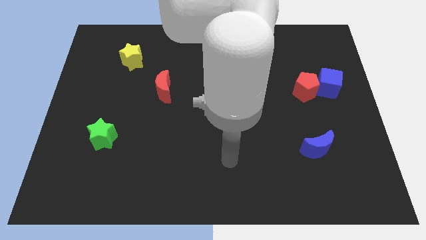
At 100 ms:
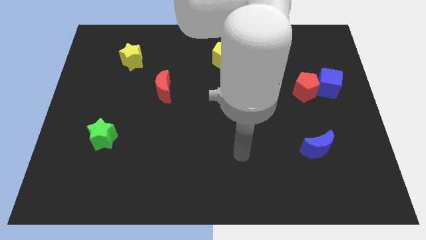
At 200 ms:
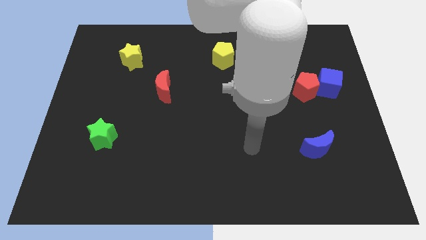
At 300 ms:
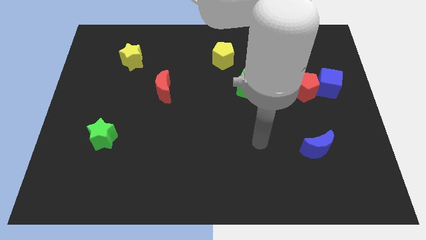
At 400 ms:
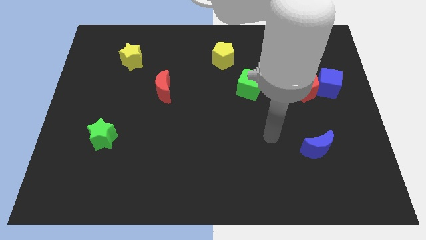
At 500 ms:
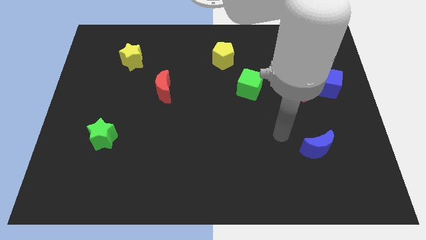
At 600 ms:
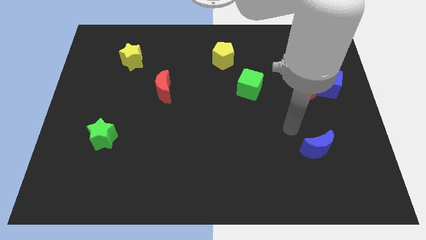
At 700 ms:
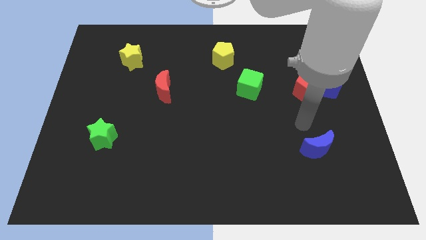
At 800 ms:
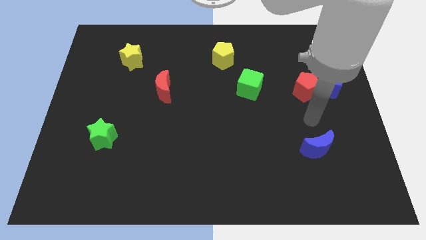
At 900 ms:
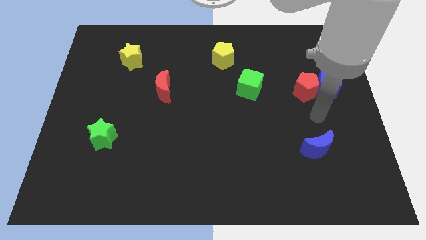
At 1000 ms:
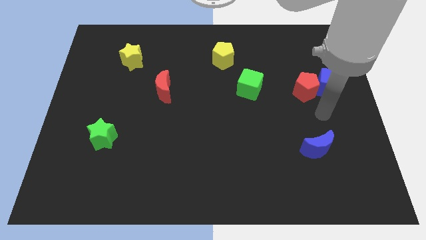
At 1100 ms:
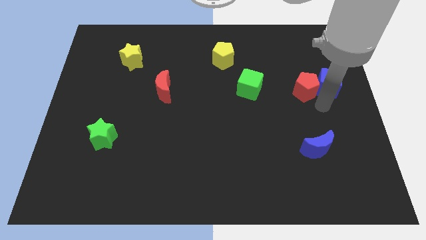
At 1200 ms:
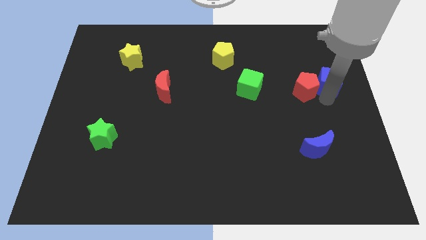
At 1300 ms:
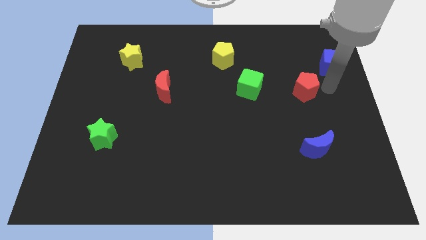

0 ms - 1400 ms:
move the red pentagon away from the blue cube

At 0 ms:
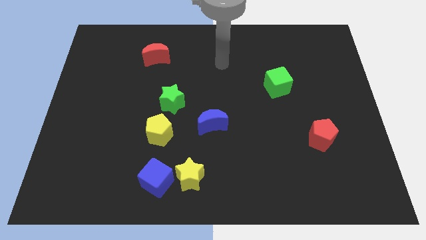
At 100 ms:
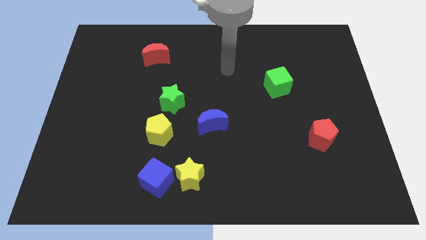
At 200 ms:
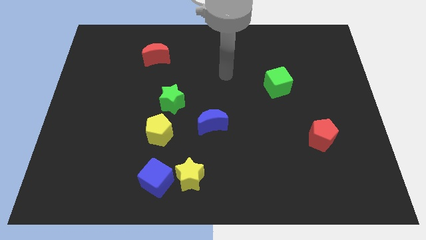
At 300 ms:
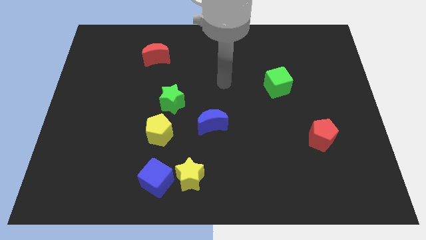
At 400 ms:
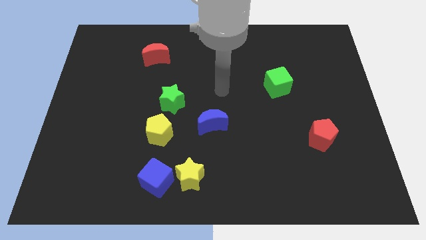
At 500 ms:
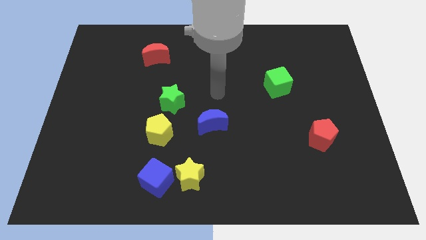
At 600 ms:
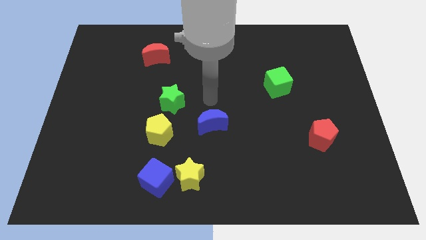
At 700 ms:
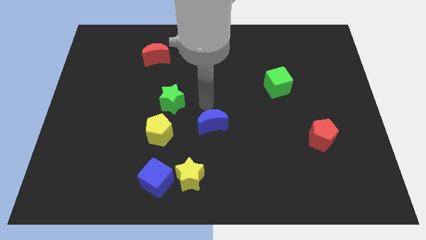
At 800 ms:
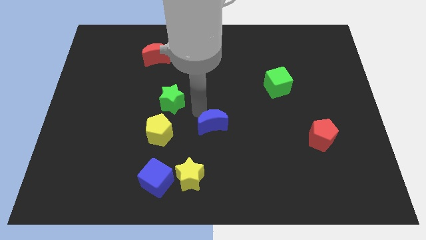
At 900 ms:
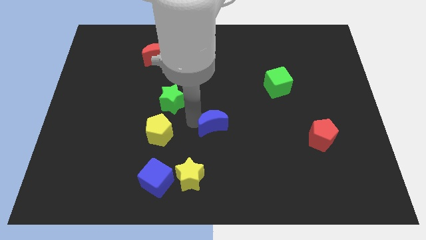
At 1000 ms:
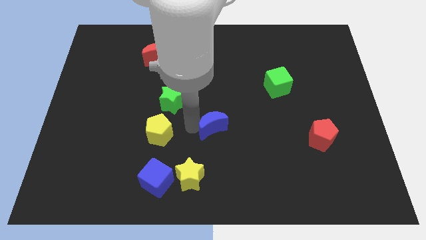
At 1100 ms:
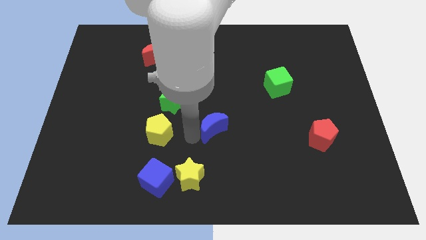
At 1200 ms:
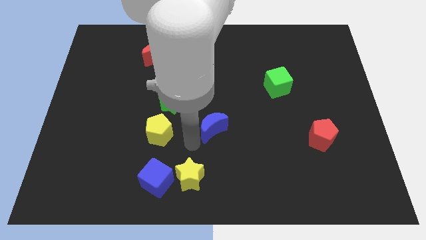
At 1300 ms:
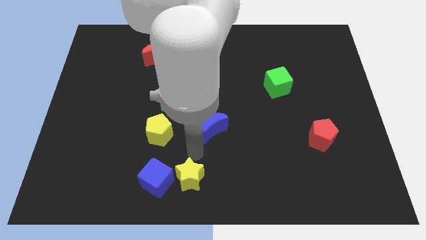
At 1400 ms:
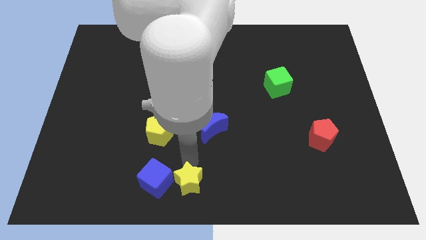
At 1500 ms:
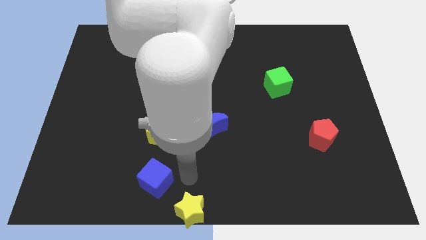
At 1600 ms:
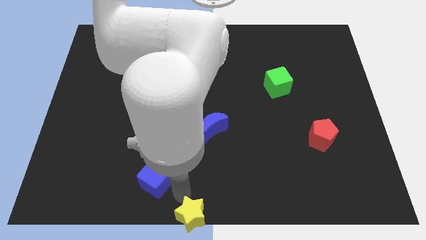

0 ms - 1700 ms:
pull the blue cube apart from the yellow star

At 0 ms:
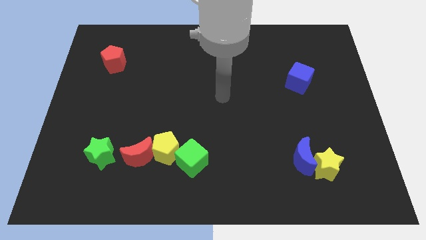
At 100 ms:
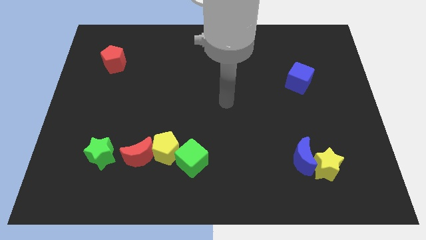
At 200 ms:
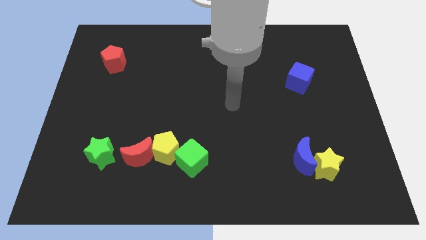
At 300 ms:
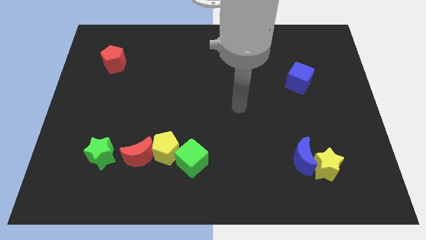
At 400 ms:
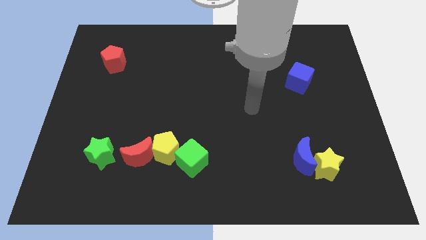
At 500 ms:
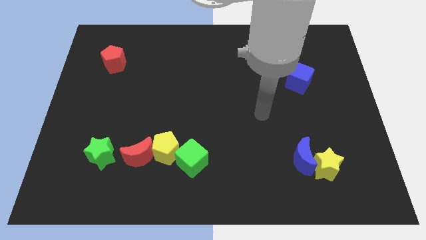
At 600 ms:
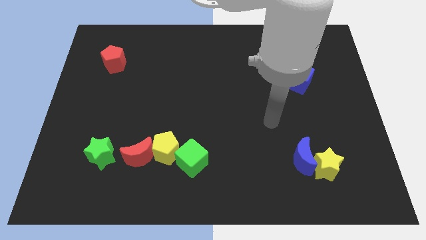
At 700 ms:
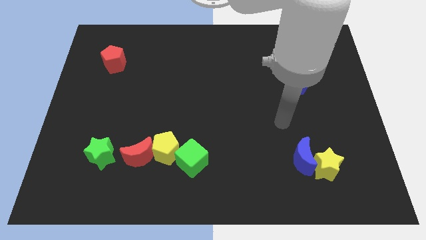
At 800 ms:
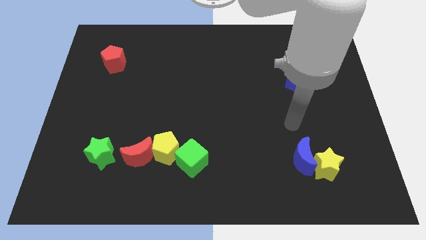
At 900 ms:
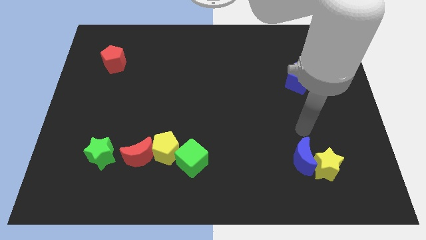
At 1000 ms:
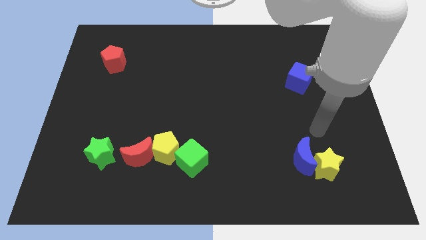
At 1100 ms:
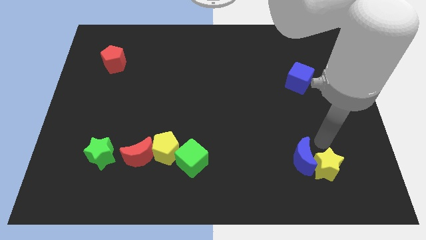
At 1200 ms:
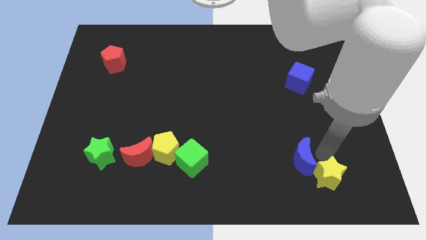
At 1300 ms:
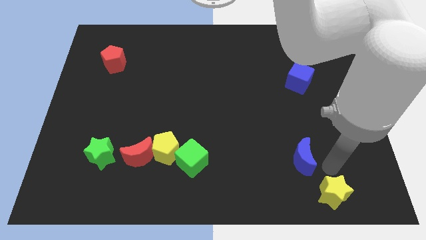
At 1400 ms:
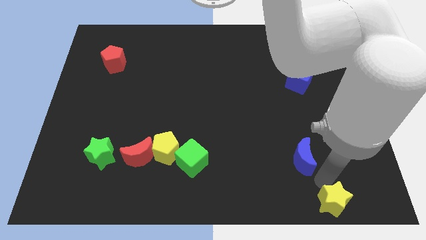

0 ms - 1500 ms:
separate the blue moon from the yellow star

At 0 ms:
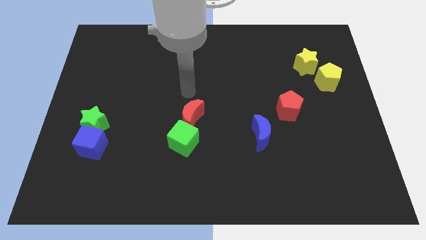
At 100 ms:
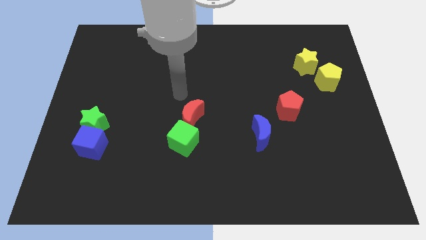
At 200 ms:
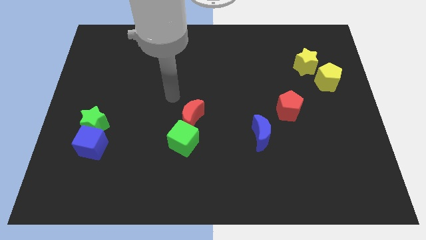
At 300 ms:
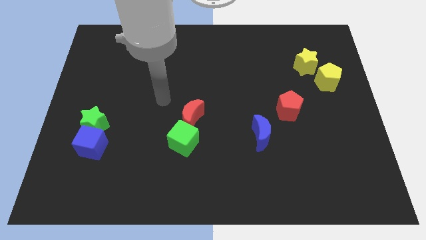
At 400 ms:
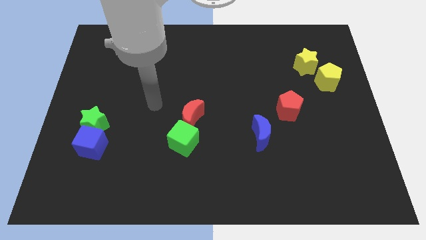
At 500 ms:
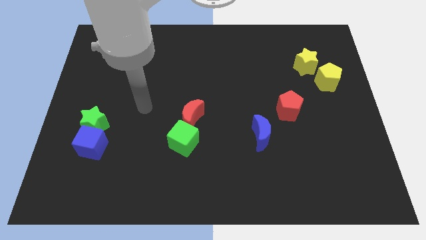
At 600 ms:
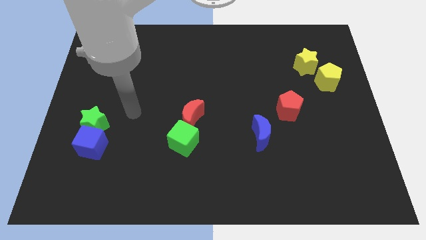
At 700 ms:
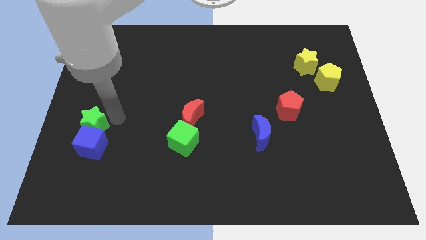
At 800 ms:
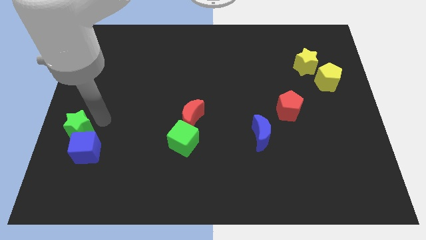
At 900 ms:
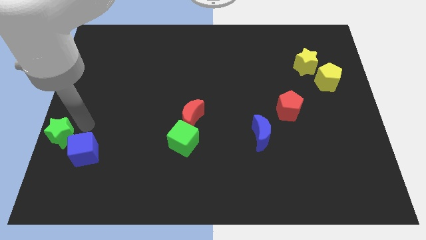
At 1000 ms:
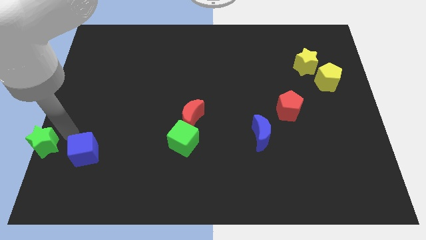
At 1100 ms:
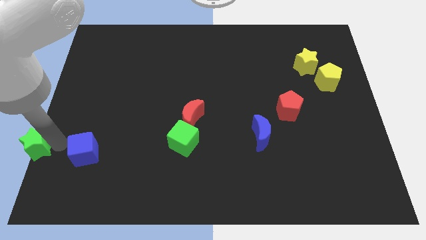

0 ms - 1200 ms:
move the blue cube away from the green star

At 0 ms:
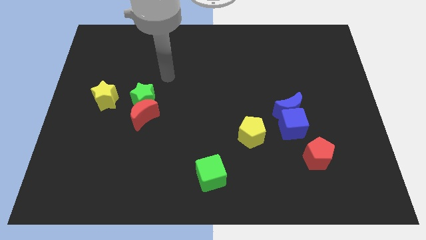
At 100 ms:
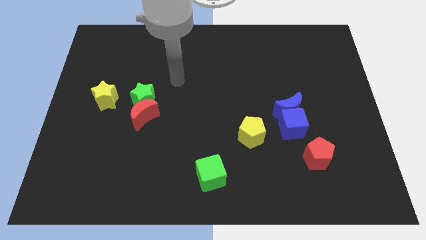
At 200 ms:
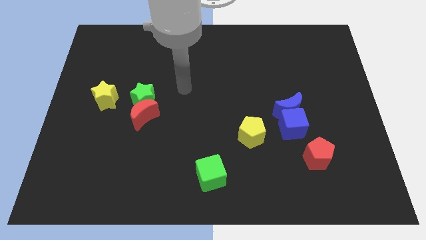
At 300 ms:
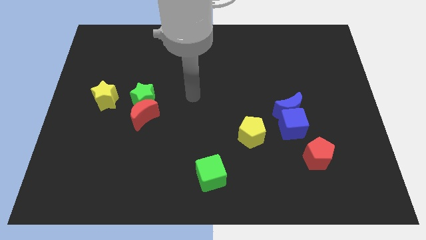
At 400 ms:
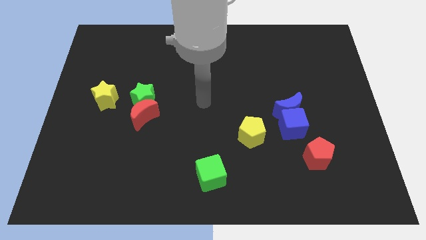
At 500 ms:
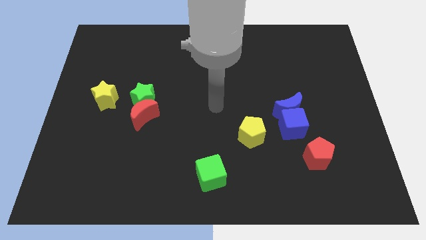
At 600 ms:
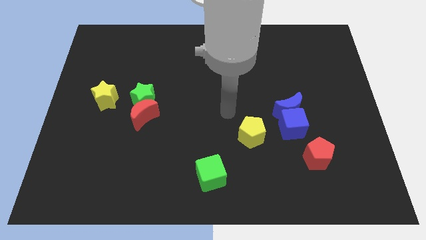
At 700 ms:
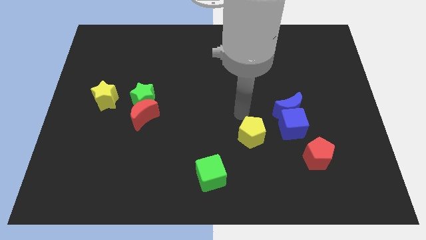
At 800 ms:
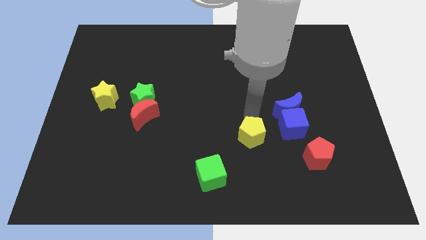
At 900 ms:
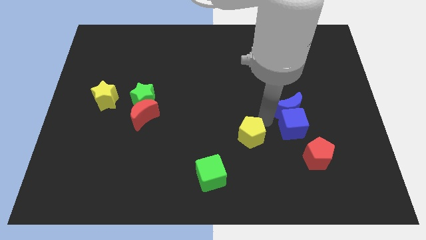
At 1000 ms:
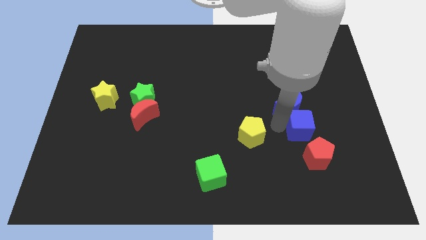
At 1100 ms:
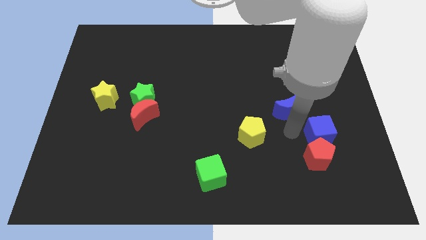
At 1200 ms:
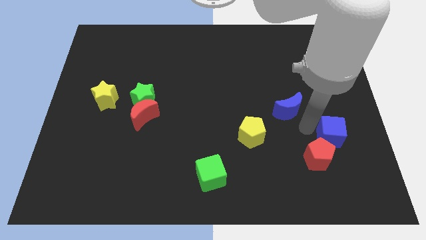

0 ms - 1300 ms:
separate the blue moon from the blue cube

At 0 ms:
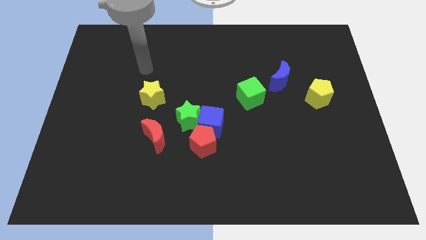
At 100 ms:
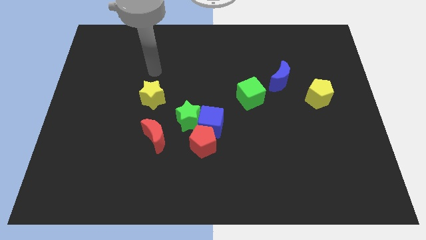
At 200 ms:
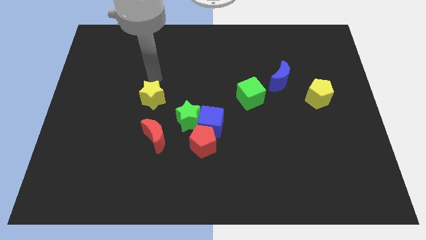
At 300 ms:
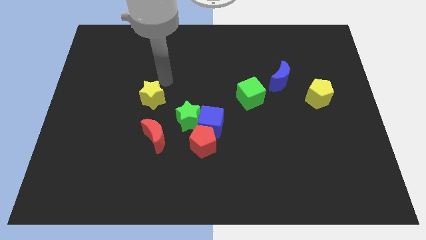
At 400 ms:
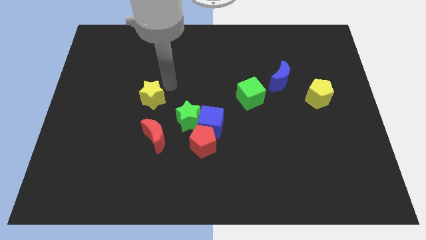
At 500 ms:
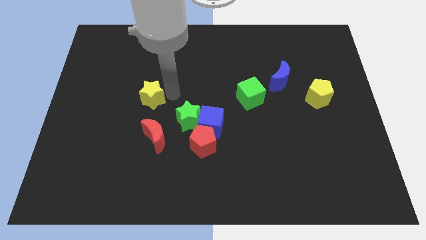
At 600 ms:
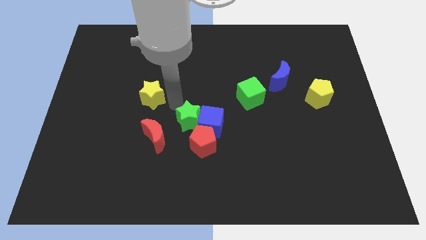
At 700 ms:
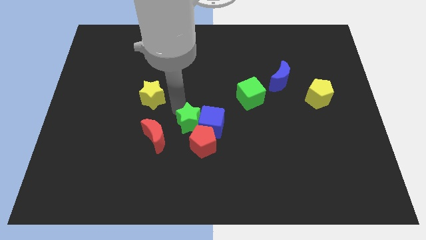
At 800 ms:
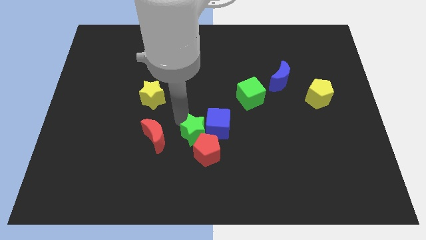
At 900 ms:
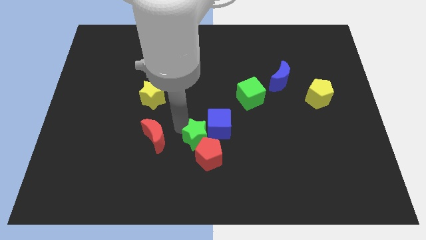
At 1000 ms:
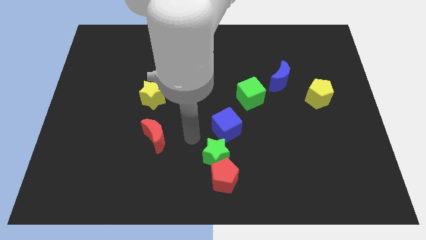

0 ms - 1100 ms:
move the blue cube away from the red pentagon and green star

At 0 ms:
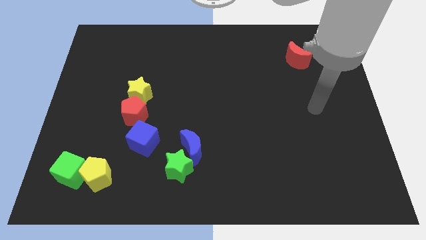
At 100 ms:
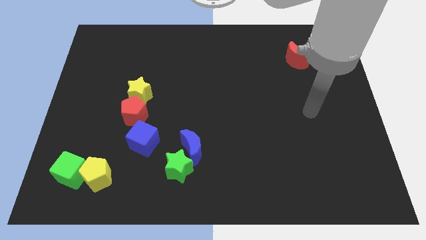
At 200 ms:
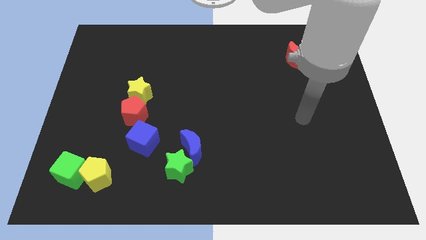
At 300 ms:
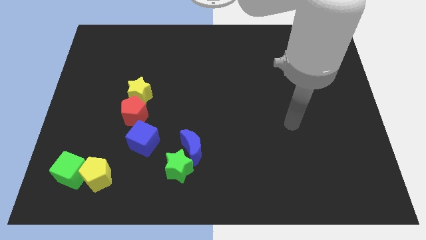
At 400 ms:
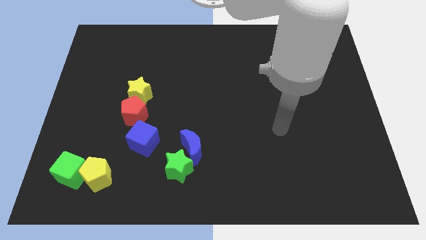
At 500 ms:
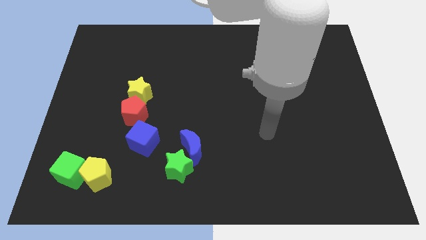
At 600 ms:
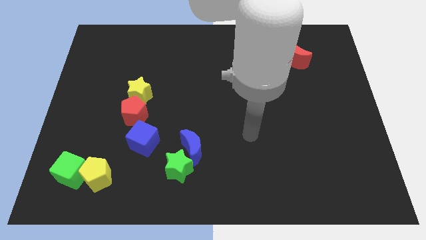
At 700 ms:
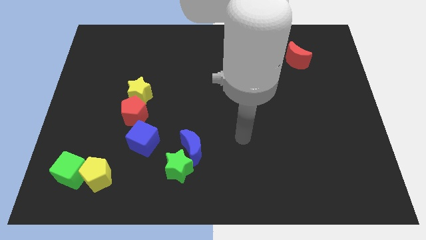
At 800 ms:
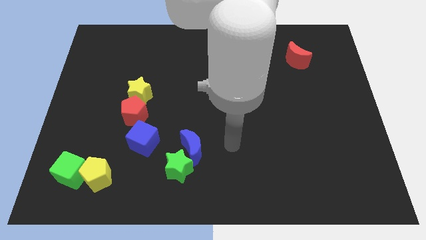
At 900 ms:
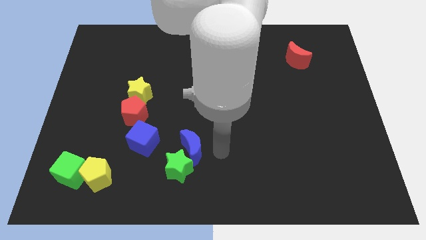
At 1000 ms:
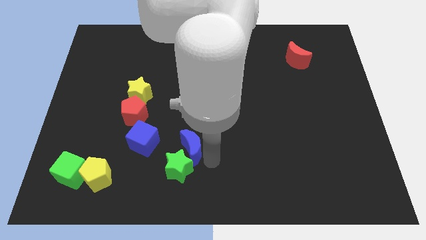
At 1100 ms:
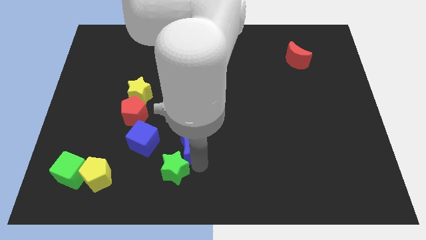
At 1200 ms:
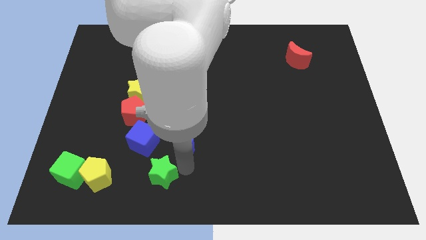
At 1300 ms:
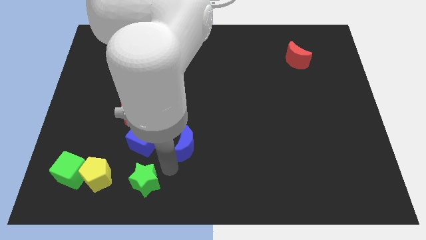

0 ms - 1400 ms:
separate the blue moon from the green star
